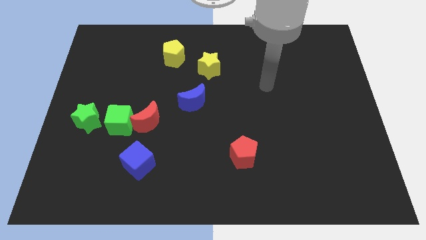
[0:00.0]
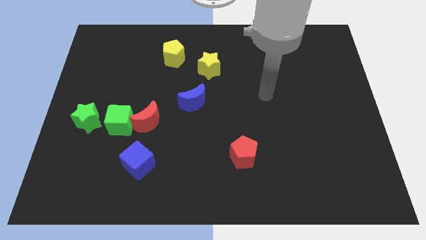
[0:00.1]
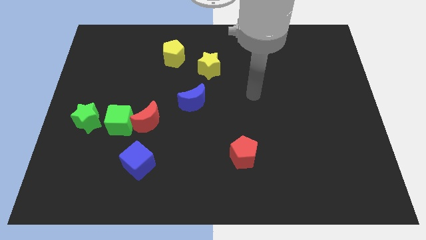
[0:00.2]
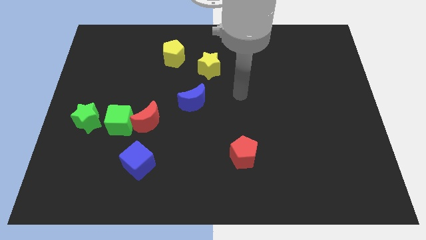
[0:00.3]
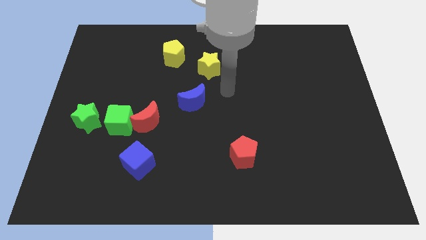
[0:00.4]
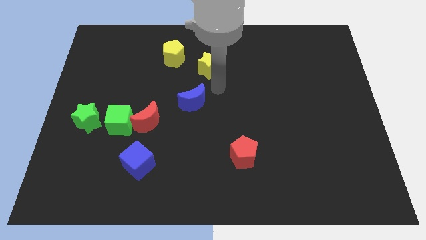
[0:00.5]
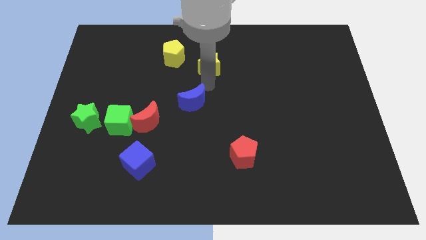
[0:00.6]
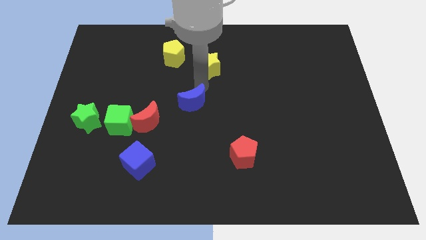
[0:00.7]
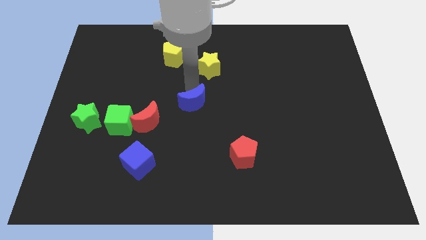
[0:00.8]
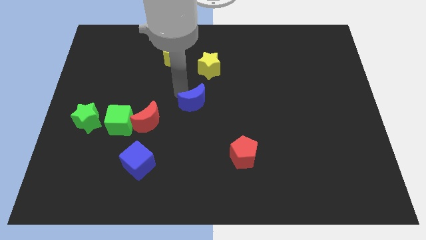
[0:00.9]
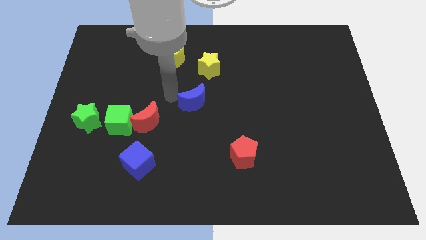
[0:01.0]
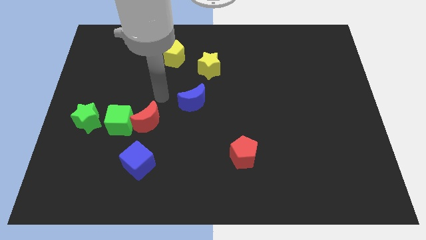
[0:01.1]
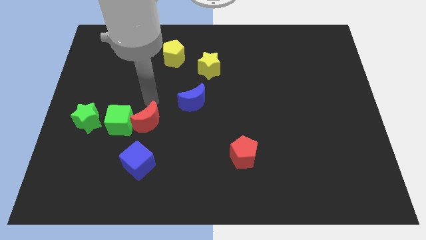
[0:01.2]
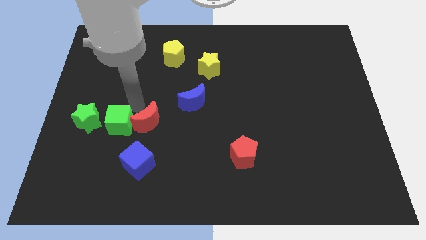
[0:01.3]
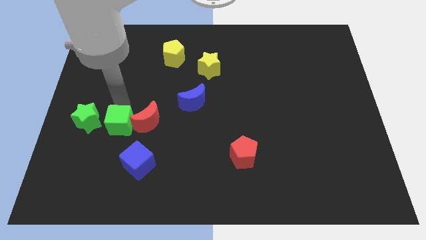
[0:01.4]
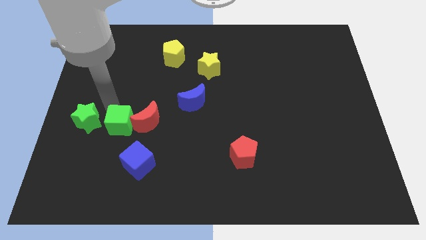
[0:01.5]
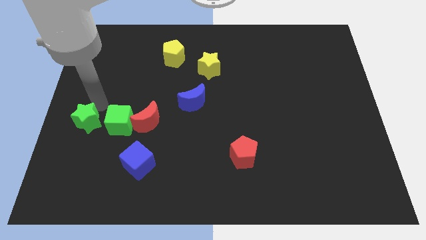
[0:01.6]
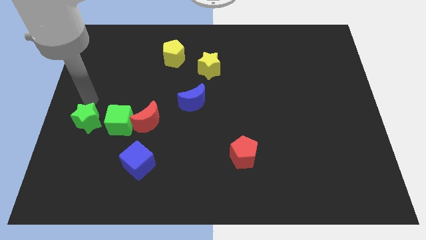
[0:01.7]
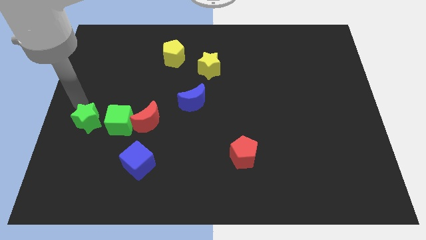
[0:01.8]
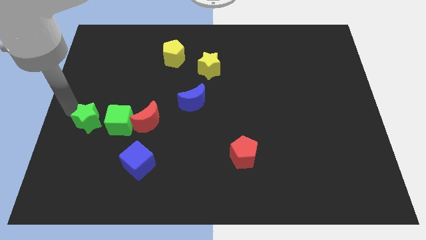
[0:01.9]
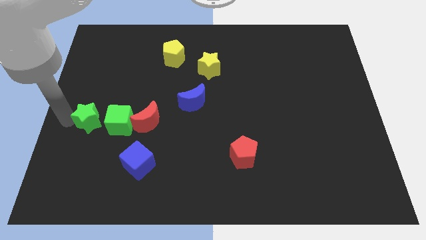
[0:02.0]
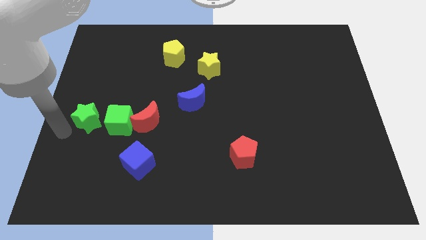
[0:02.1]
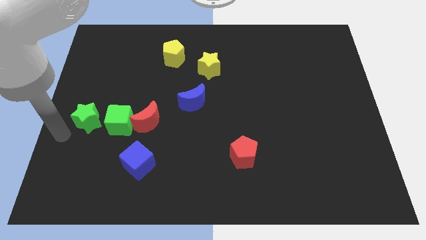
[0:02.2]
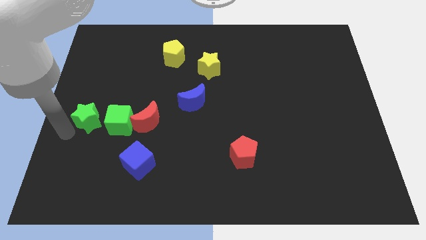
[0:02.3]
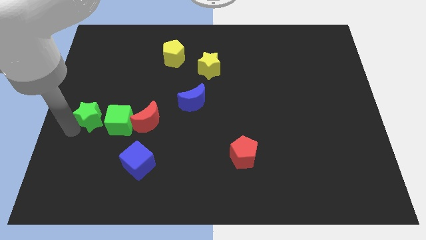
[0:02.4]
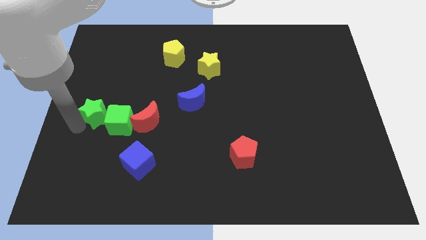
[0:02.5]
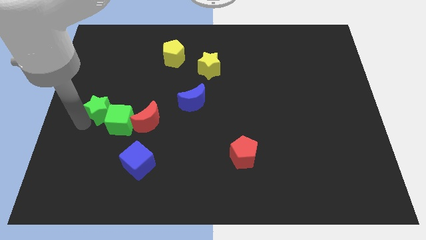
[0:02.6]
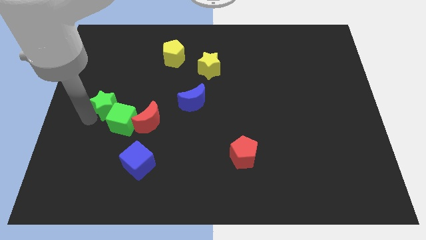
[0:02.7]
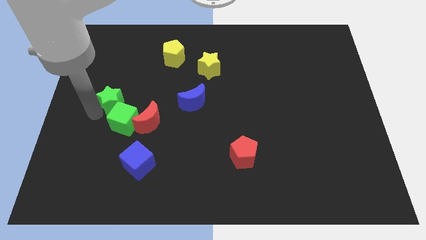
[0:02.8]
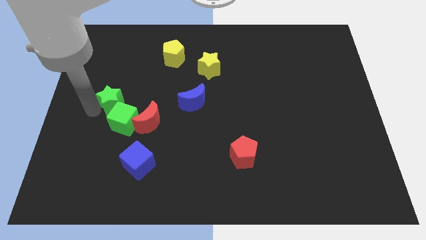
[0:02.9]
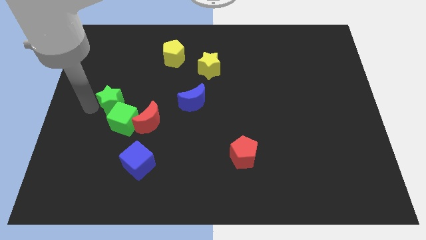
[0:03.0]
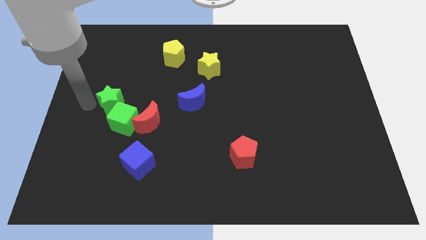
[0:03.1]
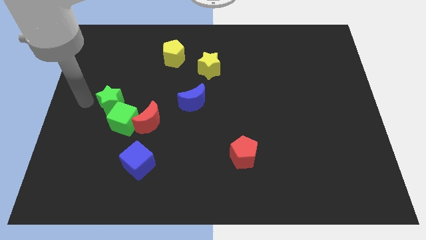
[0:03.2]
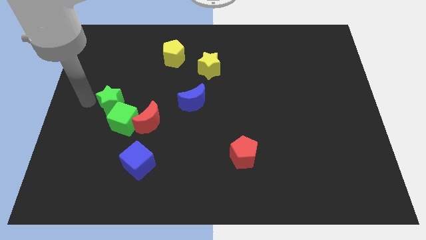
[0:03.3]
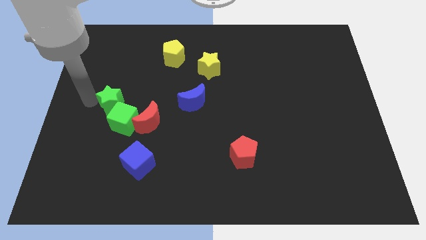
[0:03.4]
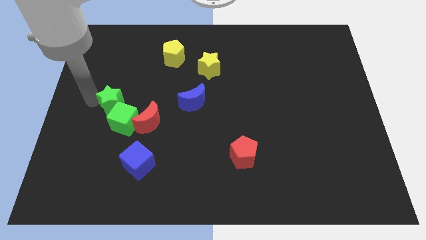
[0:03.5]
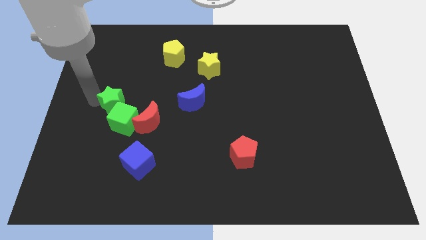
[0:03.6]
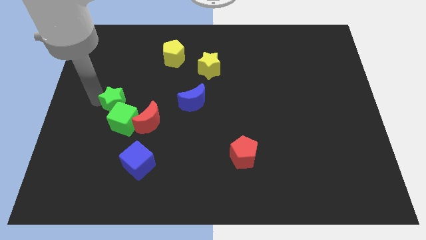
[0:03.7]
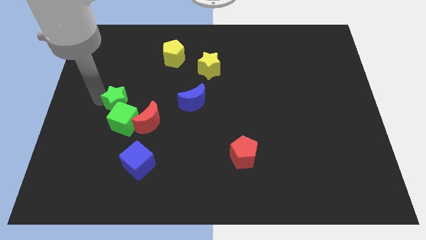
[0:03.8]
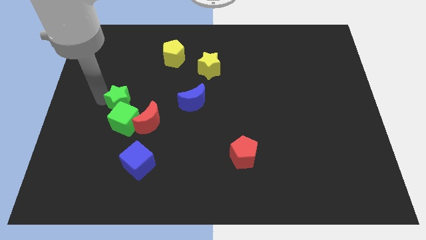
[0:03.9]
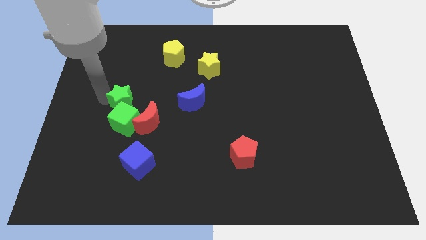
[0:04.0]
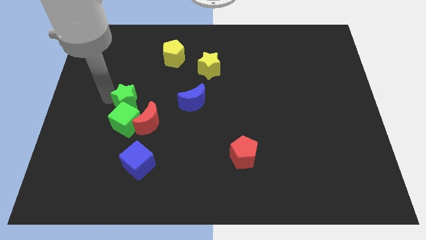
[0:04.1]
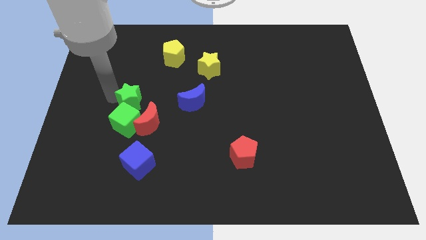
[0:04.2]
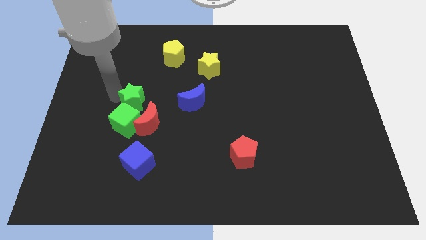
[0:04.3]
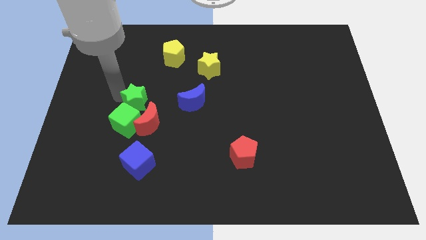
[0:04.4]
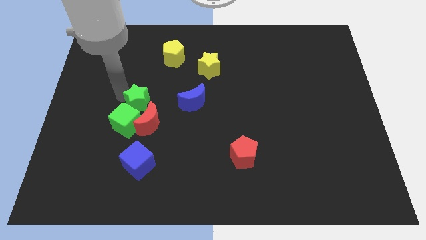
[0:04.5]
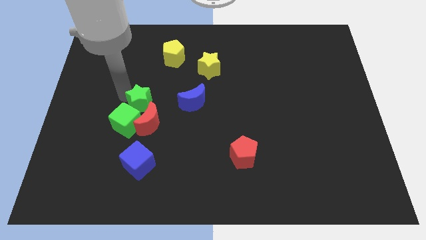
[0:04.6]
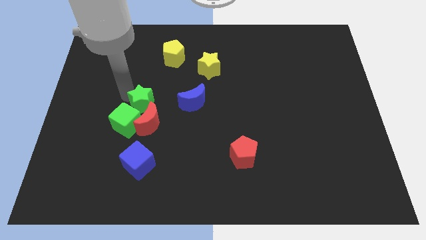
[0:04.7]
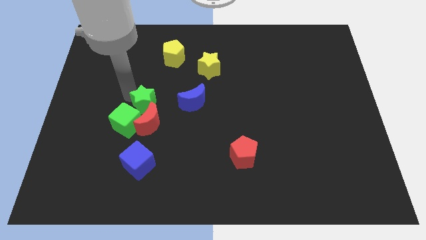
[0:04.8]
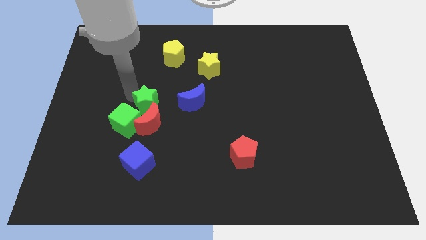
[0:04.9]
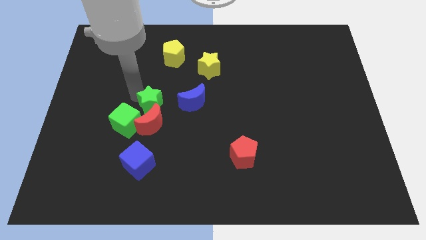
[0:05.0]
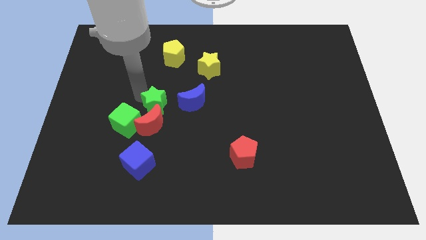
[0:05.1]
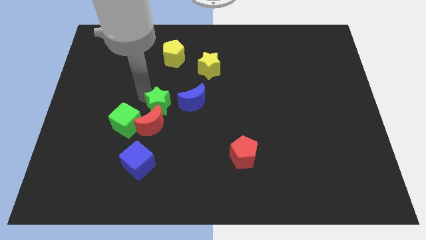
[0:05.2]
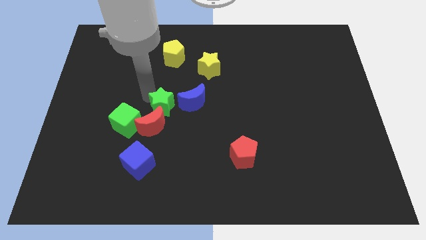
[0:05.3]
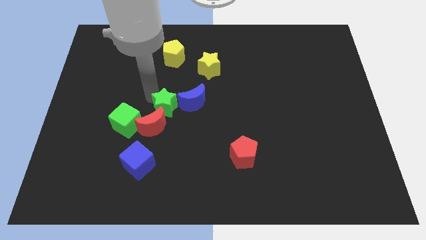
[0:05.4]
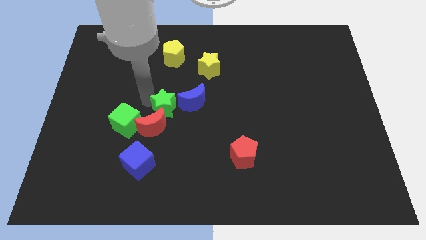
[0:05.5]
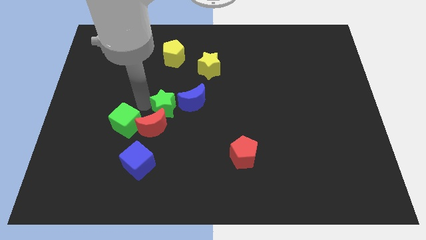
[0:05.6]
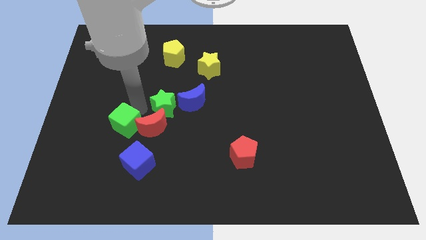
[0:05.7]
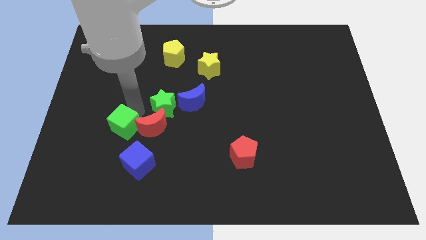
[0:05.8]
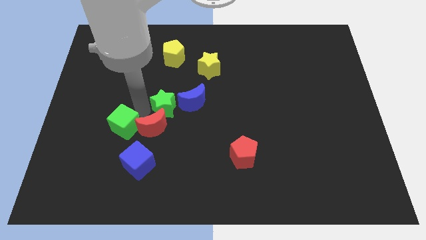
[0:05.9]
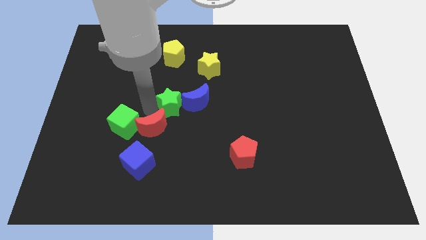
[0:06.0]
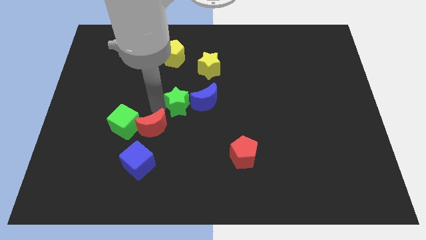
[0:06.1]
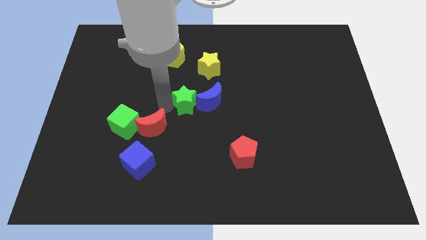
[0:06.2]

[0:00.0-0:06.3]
move the green star close to the blue moon

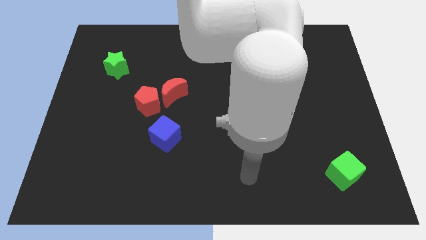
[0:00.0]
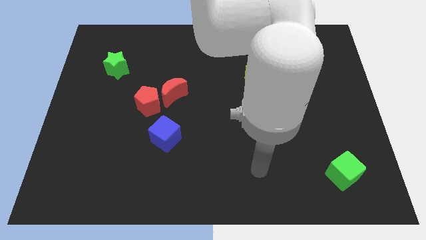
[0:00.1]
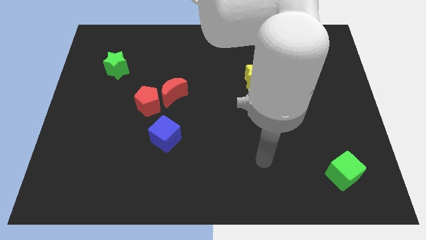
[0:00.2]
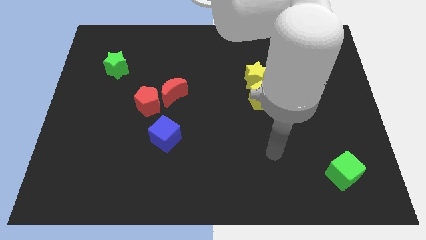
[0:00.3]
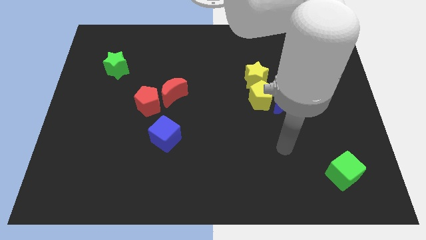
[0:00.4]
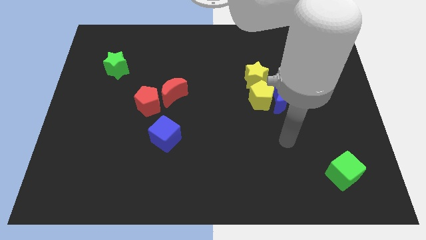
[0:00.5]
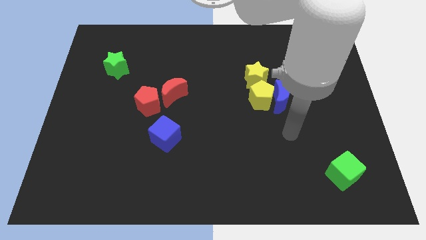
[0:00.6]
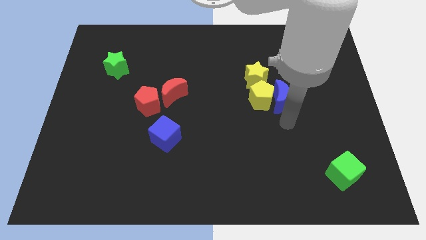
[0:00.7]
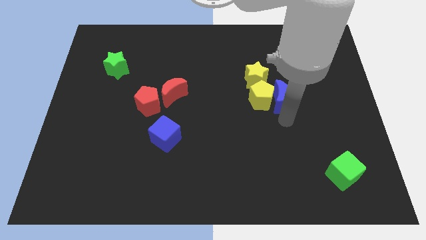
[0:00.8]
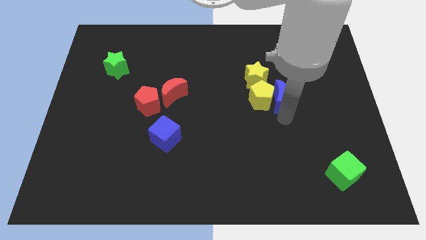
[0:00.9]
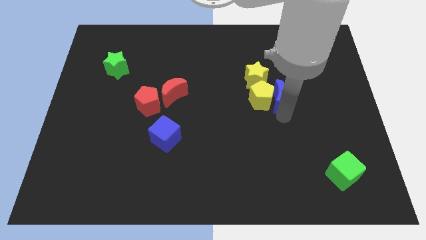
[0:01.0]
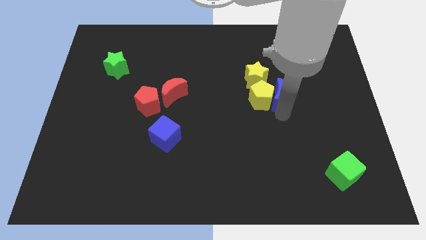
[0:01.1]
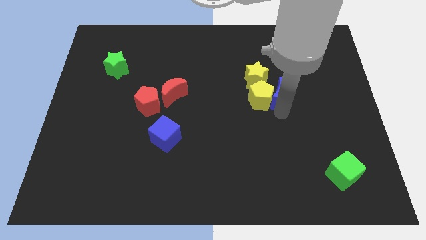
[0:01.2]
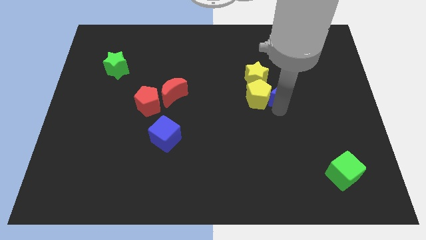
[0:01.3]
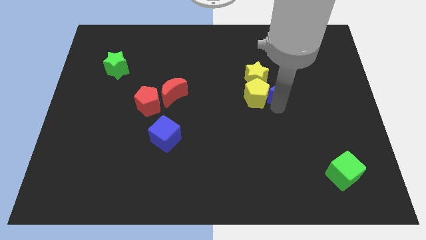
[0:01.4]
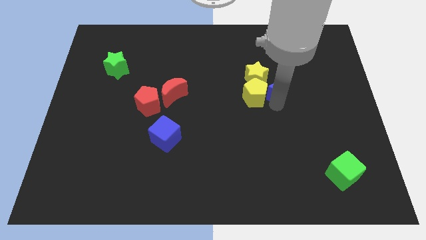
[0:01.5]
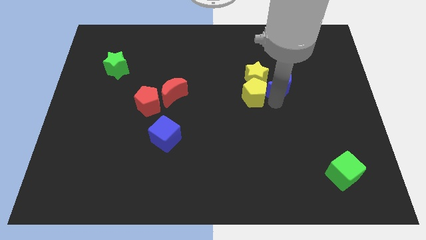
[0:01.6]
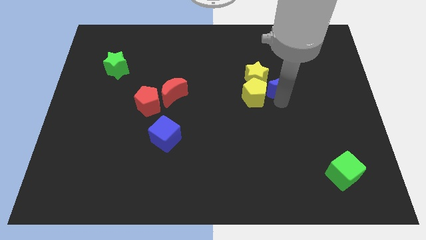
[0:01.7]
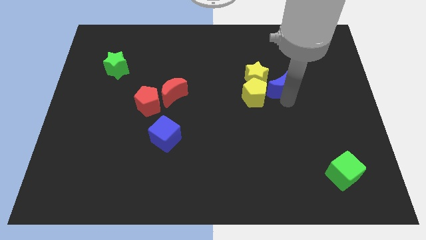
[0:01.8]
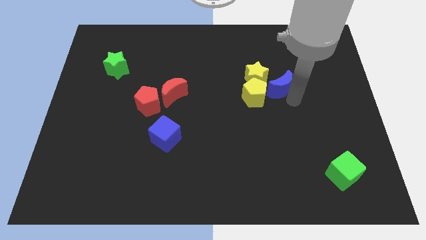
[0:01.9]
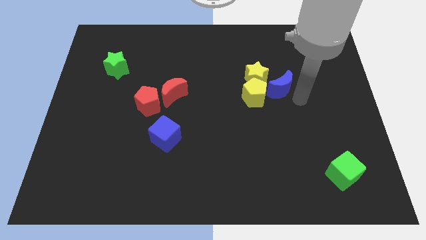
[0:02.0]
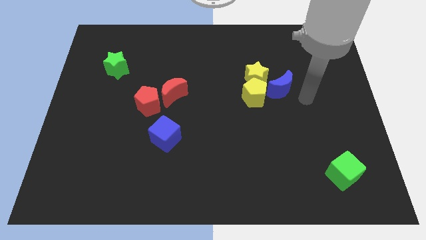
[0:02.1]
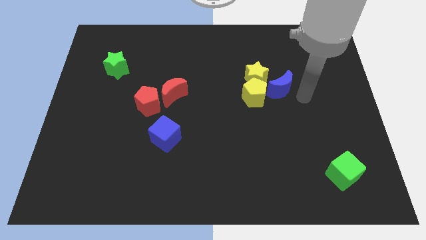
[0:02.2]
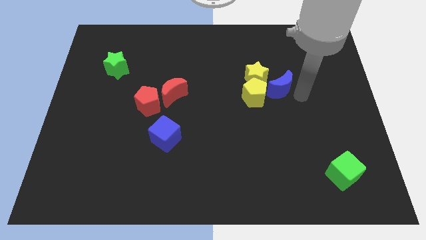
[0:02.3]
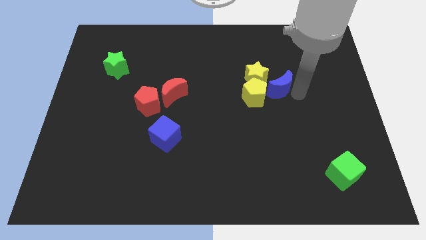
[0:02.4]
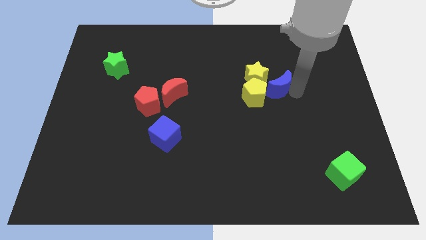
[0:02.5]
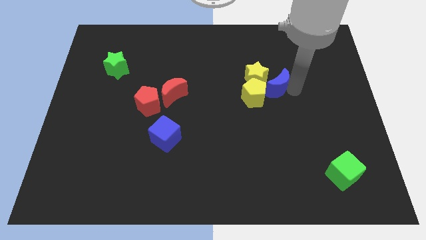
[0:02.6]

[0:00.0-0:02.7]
move the blue moon close to the yellow star
